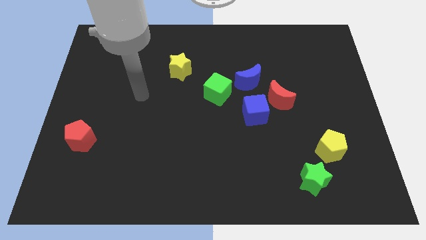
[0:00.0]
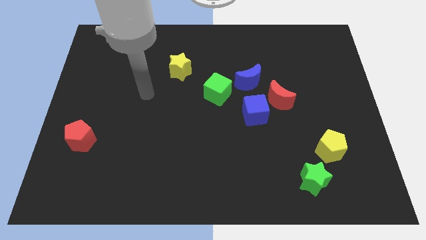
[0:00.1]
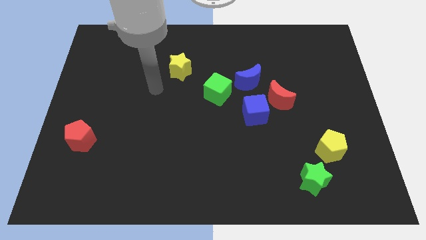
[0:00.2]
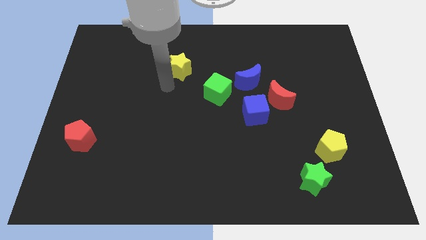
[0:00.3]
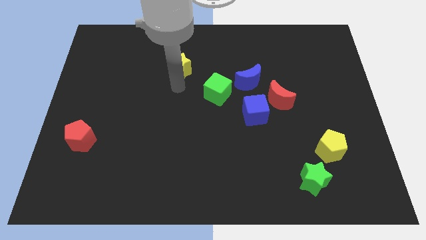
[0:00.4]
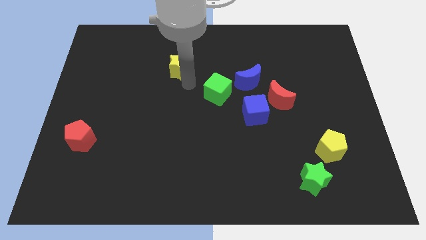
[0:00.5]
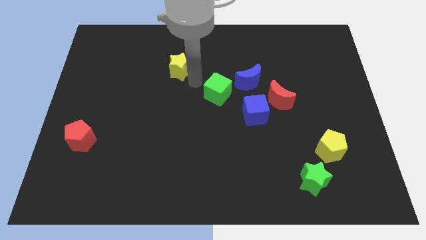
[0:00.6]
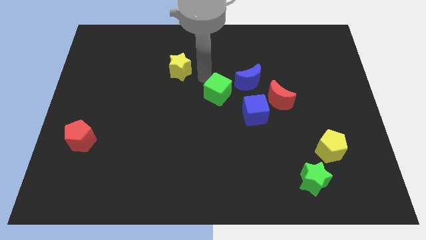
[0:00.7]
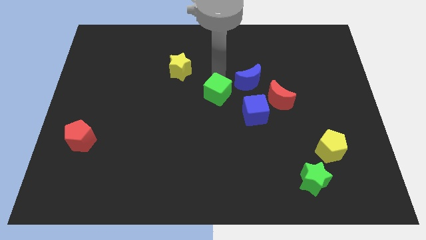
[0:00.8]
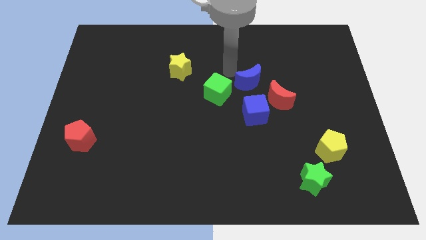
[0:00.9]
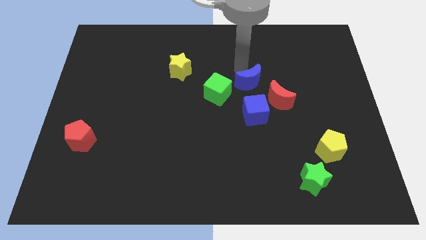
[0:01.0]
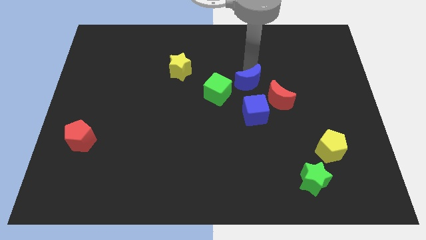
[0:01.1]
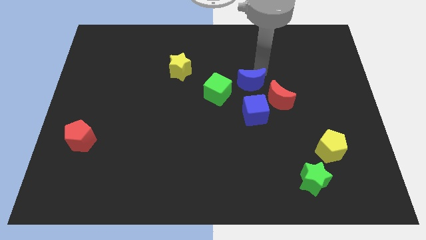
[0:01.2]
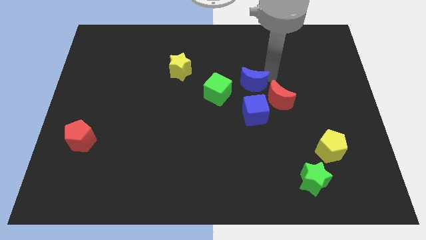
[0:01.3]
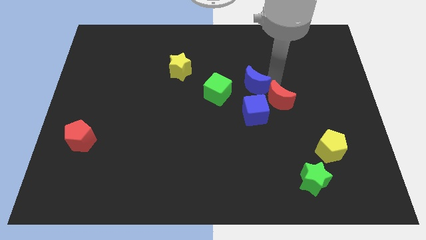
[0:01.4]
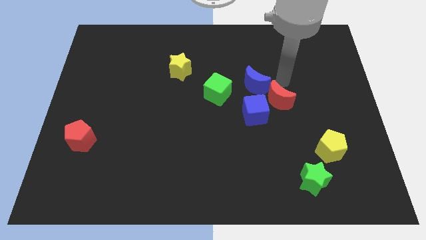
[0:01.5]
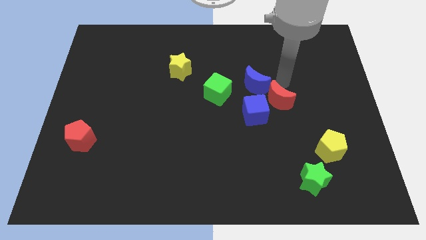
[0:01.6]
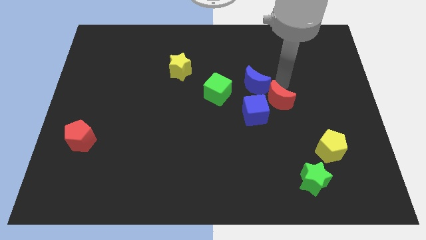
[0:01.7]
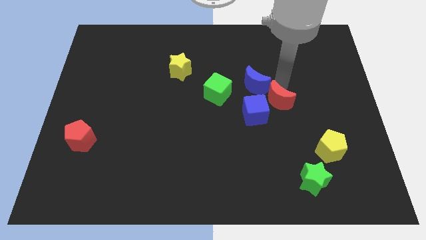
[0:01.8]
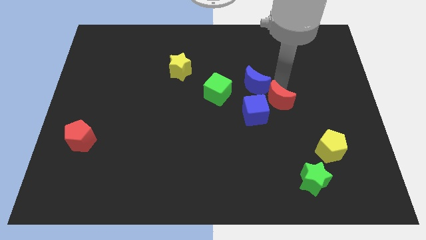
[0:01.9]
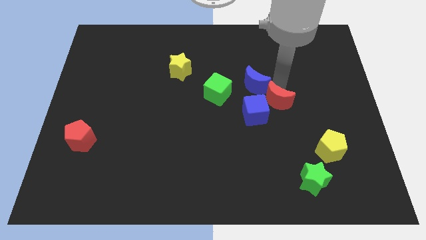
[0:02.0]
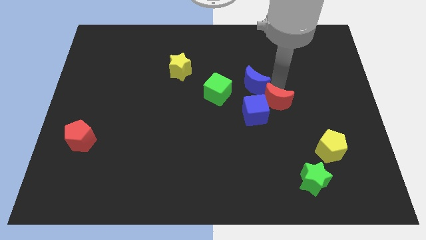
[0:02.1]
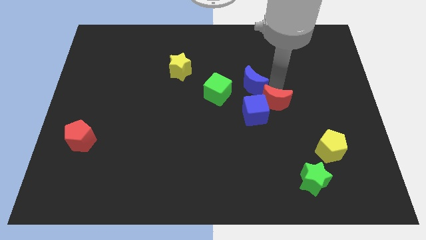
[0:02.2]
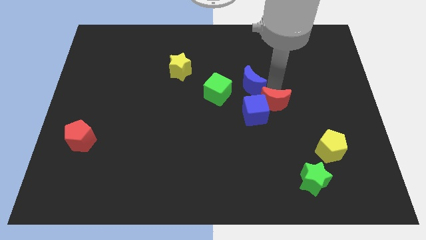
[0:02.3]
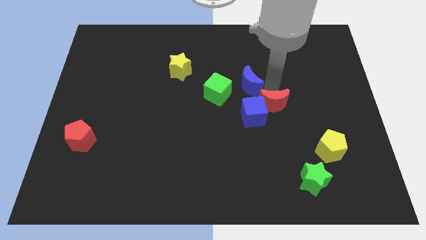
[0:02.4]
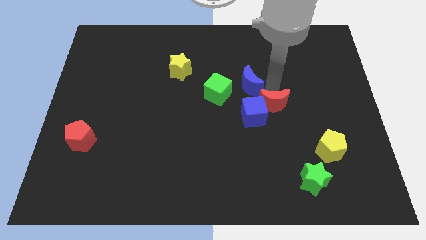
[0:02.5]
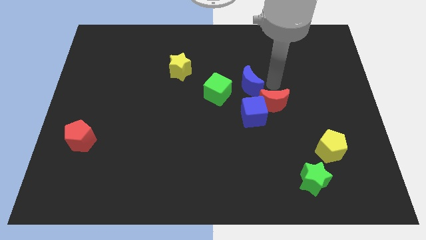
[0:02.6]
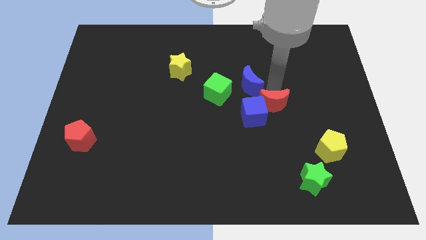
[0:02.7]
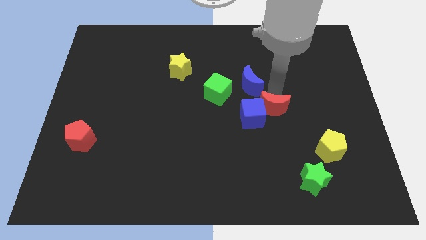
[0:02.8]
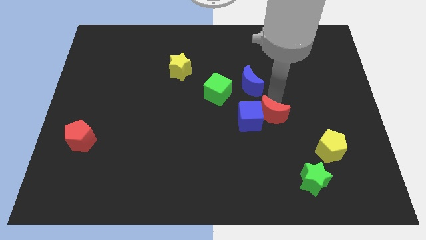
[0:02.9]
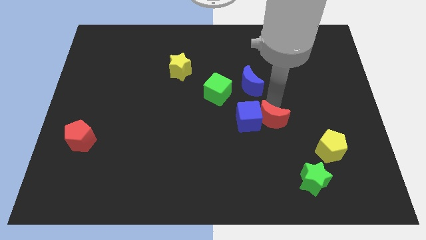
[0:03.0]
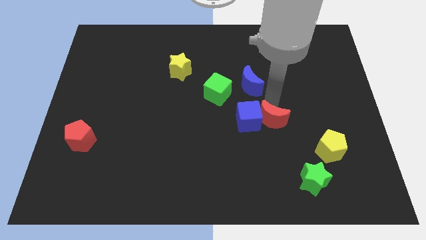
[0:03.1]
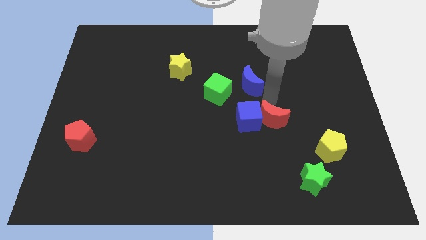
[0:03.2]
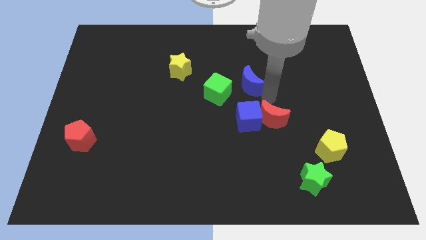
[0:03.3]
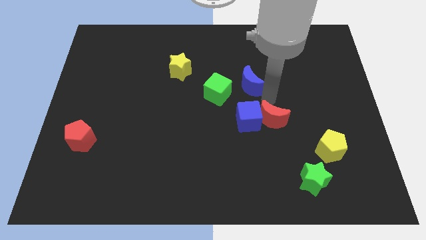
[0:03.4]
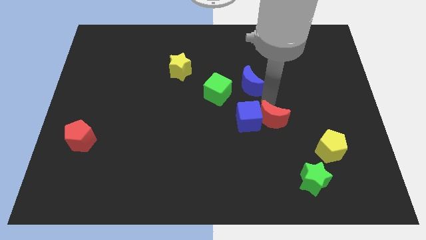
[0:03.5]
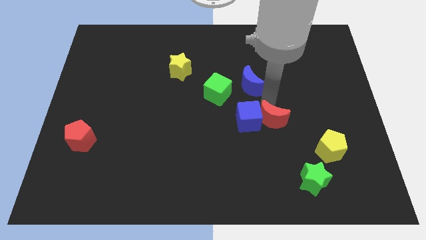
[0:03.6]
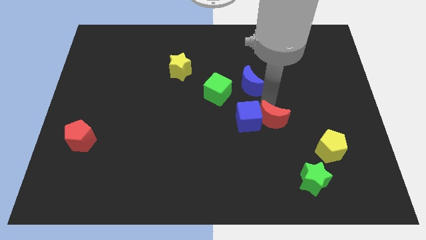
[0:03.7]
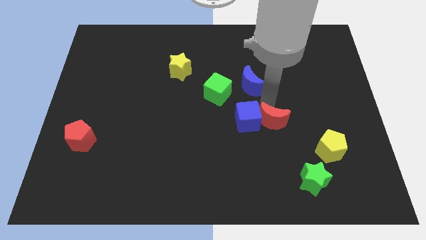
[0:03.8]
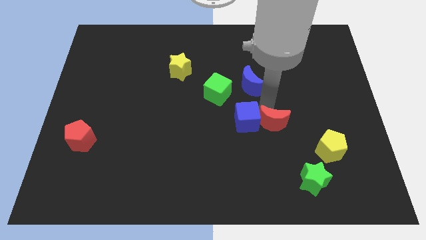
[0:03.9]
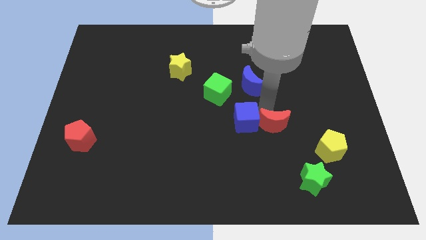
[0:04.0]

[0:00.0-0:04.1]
move the red moon slightly downwards

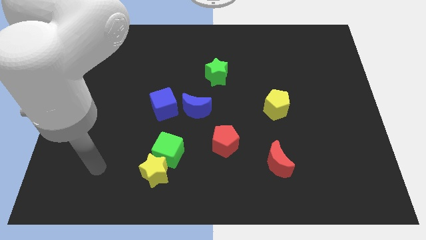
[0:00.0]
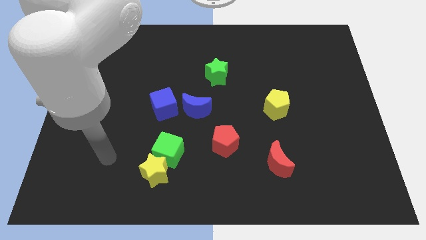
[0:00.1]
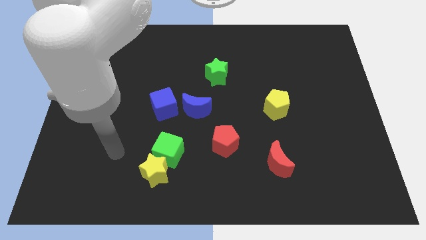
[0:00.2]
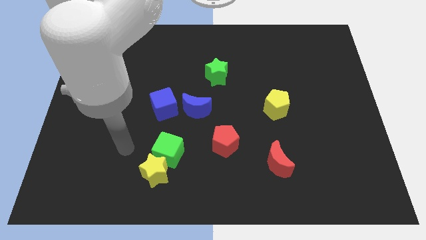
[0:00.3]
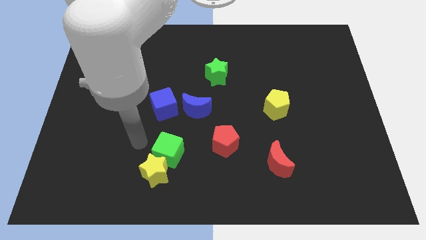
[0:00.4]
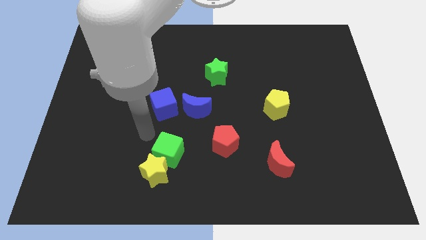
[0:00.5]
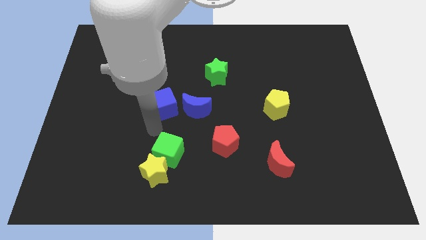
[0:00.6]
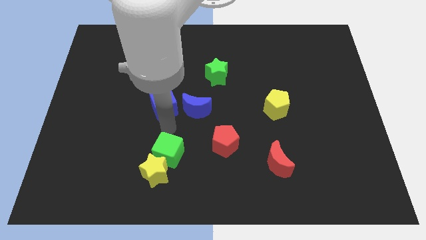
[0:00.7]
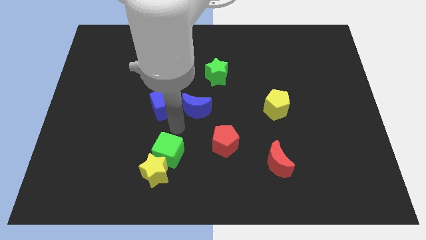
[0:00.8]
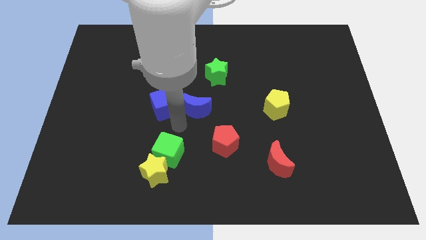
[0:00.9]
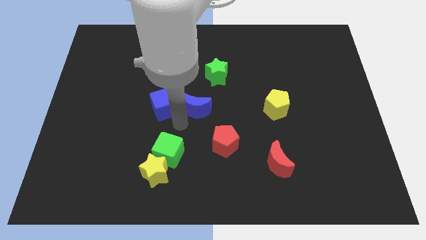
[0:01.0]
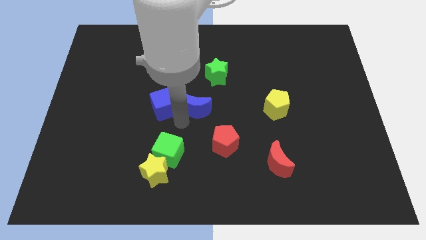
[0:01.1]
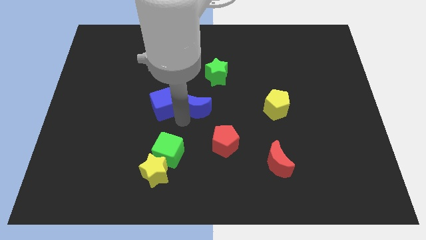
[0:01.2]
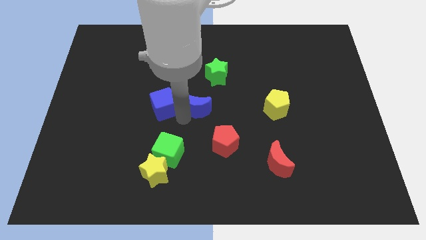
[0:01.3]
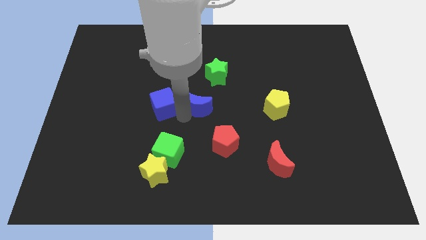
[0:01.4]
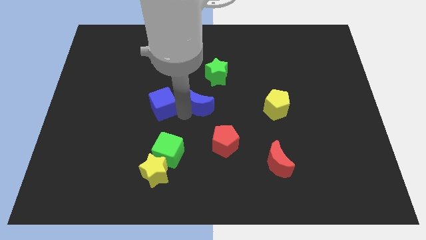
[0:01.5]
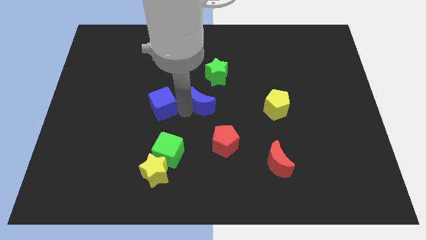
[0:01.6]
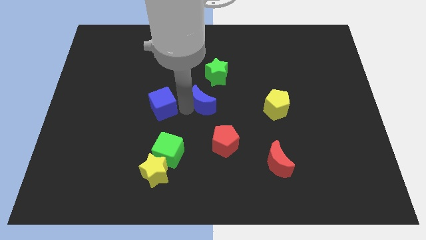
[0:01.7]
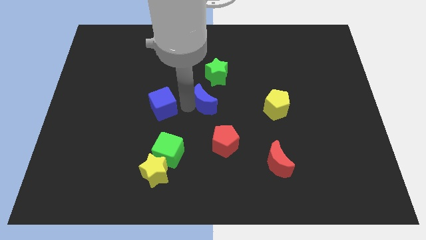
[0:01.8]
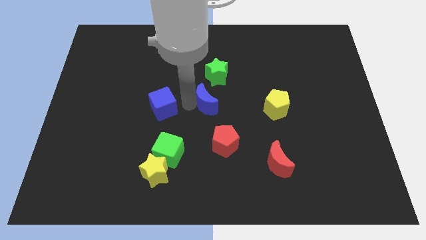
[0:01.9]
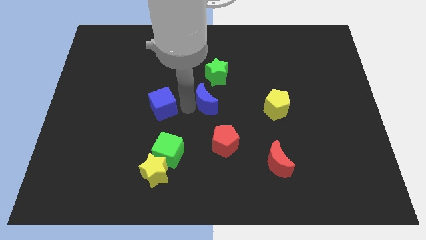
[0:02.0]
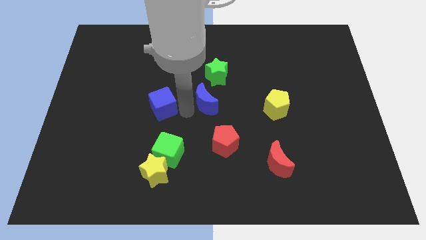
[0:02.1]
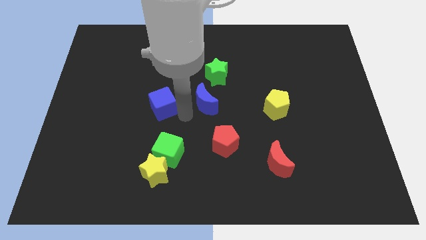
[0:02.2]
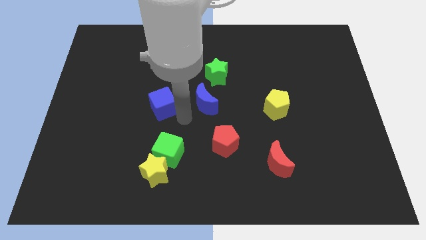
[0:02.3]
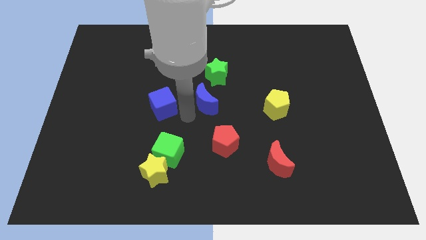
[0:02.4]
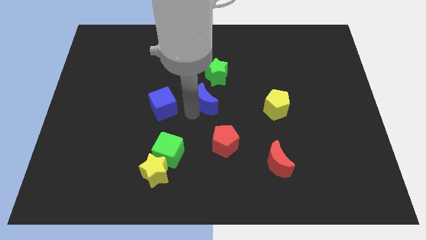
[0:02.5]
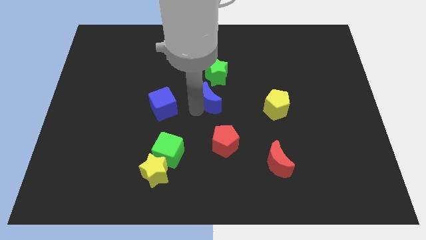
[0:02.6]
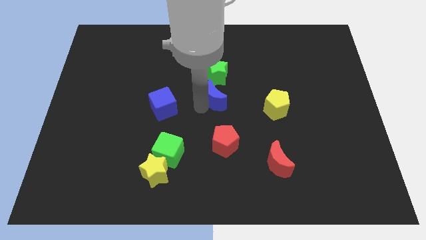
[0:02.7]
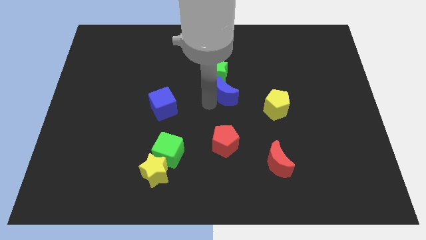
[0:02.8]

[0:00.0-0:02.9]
push the blue moon somewhat upwards and then to the right

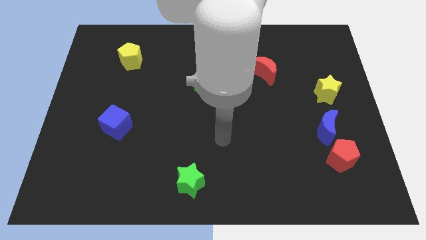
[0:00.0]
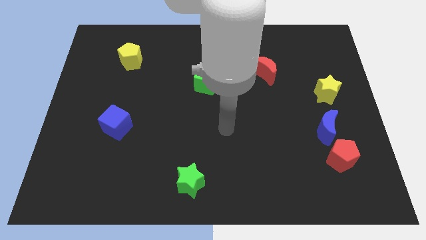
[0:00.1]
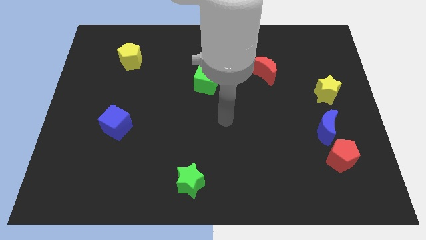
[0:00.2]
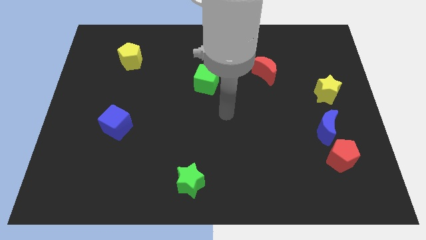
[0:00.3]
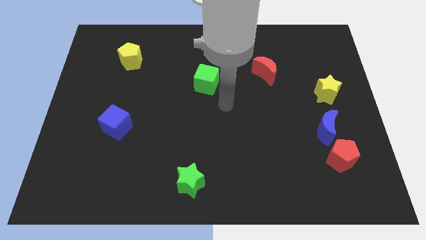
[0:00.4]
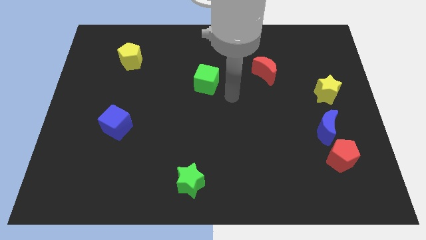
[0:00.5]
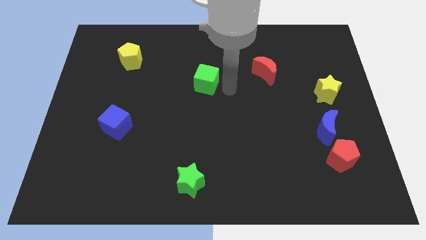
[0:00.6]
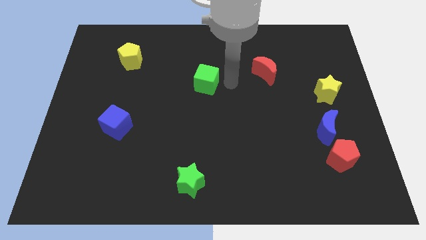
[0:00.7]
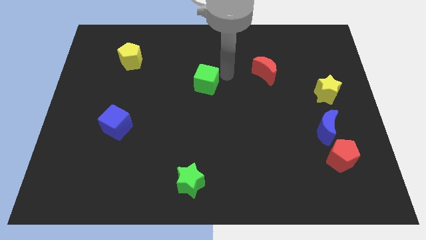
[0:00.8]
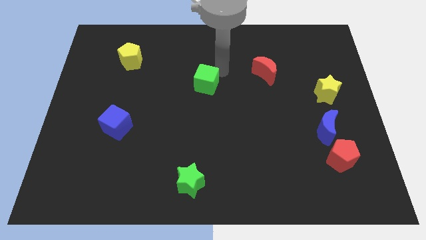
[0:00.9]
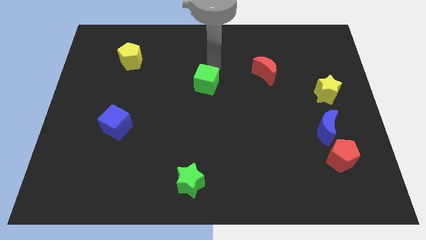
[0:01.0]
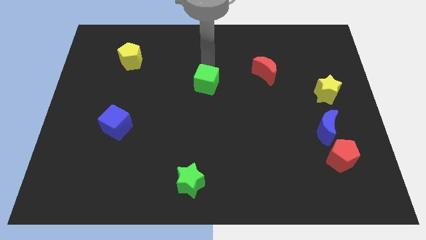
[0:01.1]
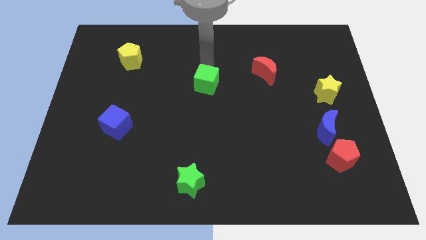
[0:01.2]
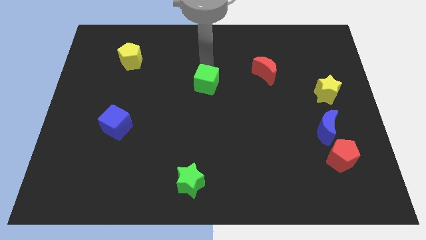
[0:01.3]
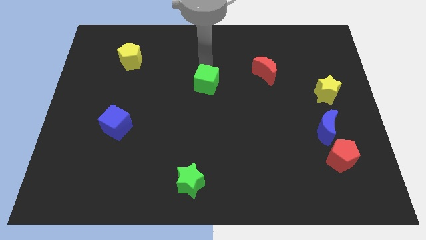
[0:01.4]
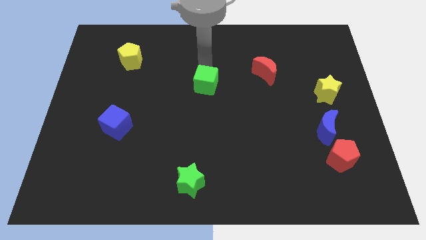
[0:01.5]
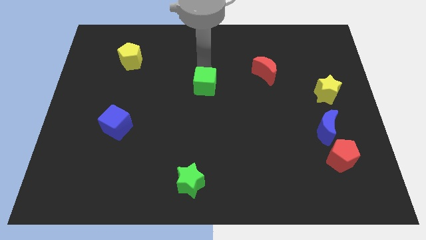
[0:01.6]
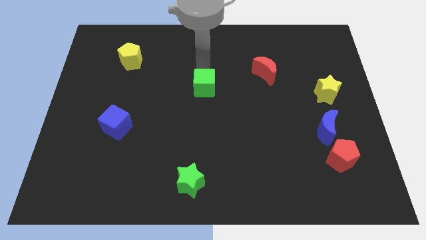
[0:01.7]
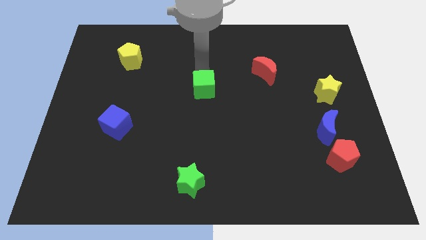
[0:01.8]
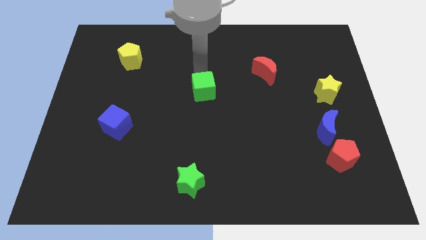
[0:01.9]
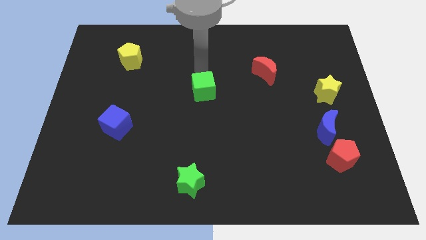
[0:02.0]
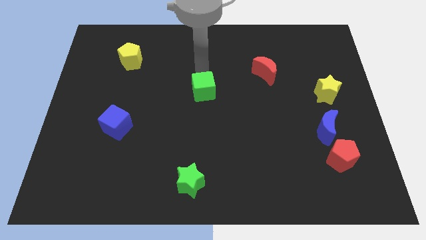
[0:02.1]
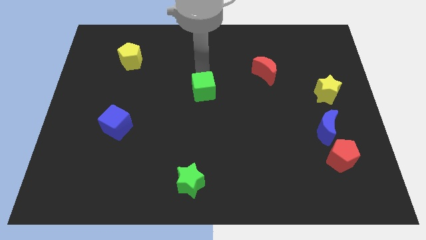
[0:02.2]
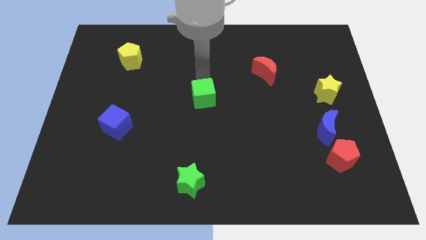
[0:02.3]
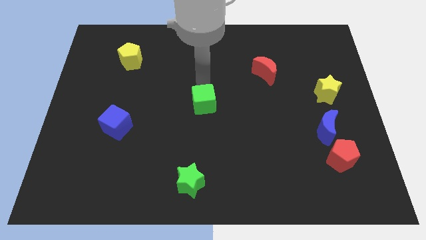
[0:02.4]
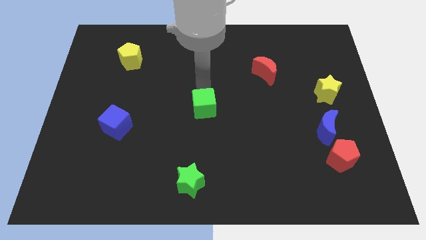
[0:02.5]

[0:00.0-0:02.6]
move the green cube somewhat down
